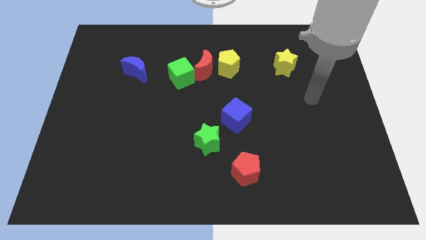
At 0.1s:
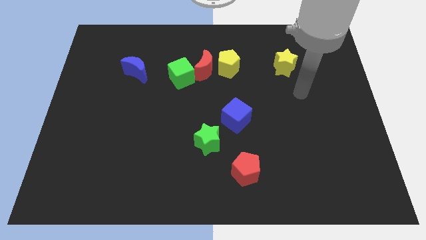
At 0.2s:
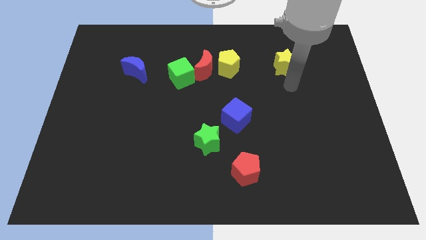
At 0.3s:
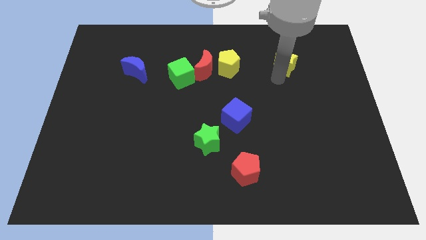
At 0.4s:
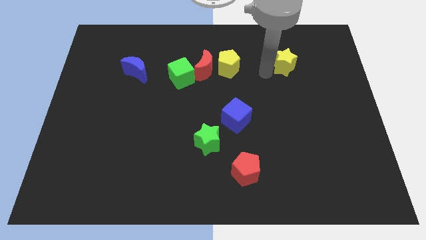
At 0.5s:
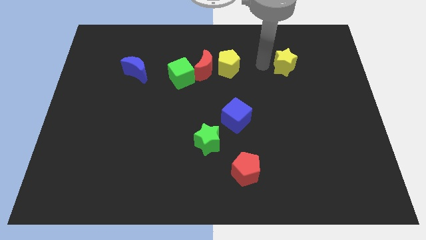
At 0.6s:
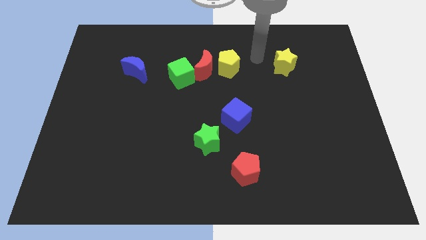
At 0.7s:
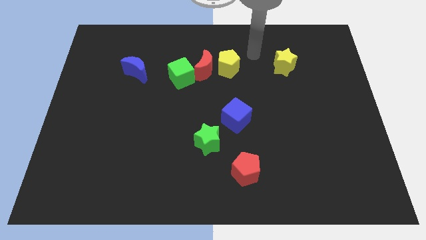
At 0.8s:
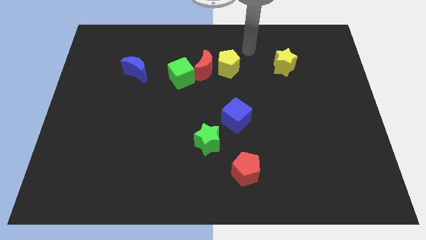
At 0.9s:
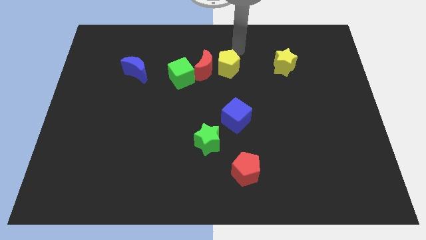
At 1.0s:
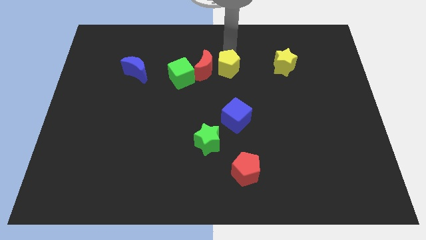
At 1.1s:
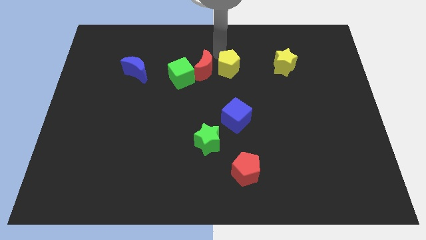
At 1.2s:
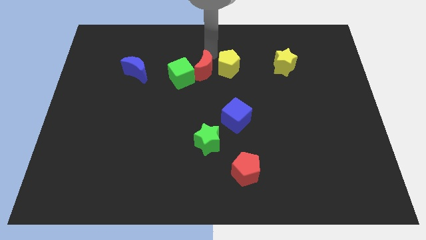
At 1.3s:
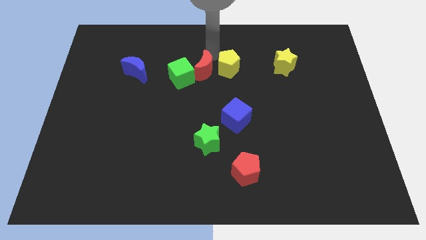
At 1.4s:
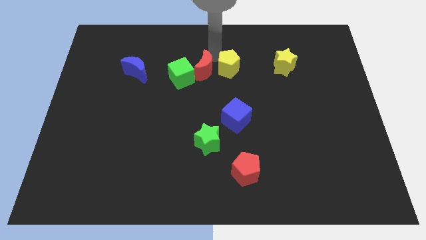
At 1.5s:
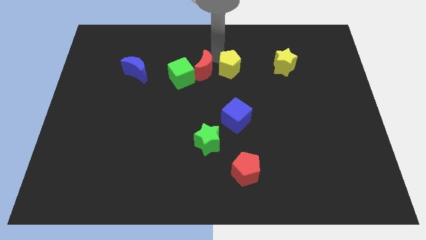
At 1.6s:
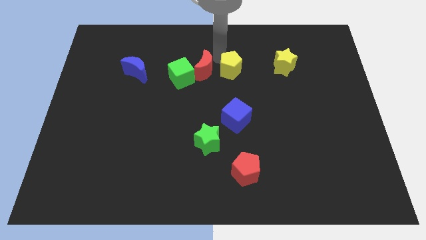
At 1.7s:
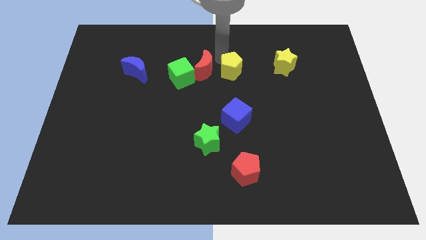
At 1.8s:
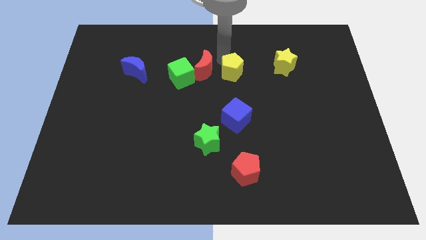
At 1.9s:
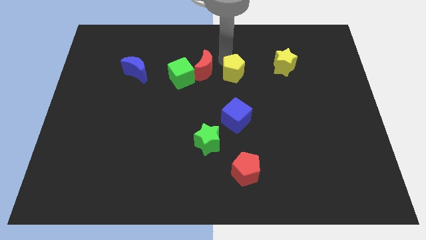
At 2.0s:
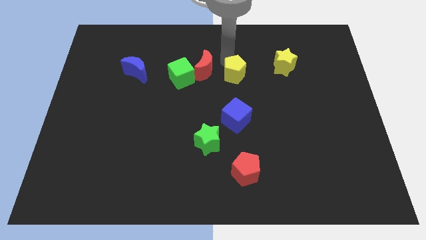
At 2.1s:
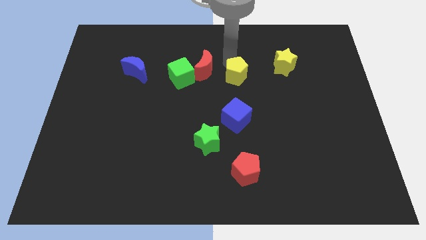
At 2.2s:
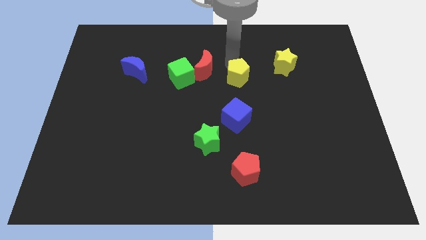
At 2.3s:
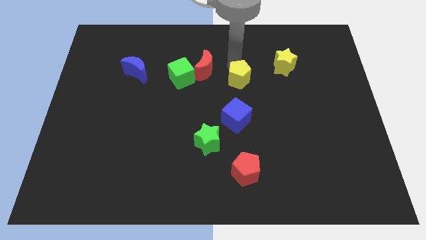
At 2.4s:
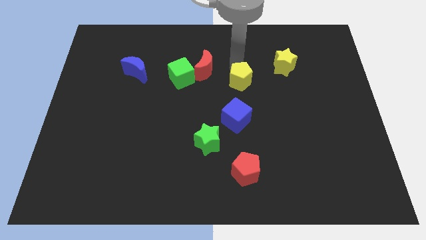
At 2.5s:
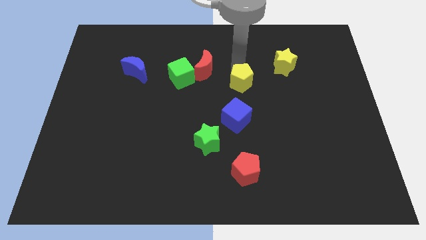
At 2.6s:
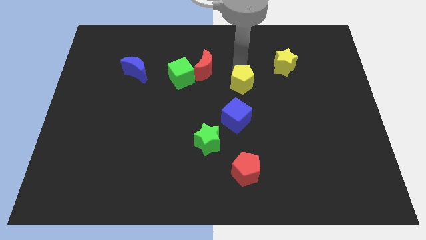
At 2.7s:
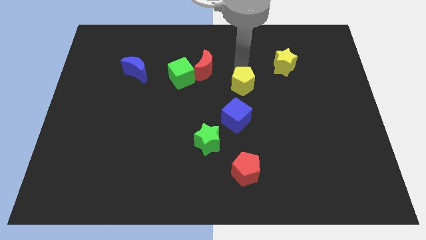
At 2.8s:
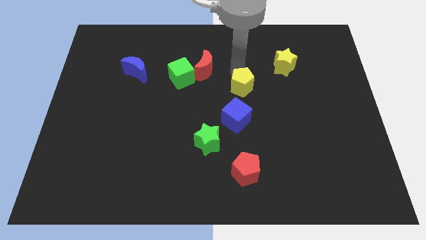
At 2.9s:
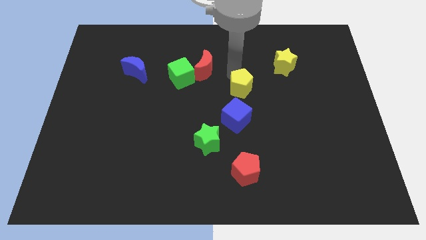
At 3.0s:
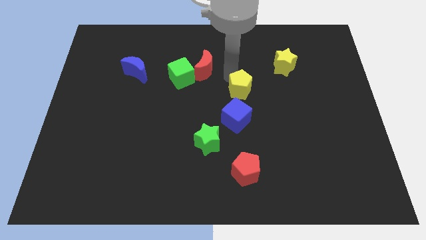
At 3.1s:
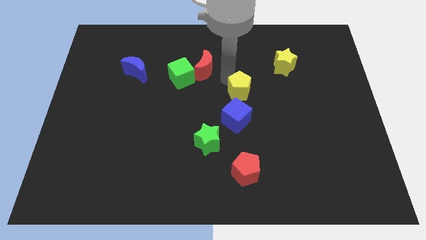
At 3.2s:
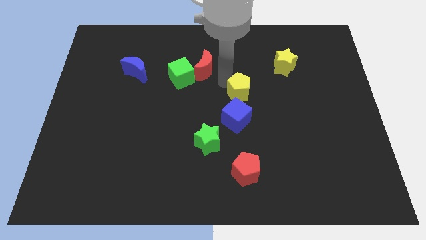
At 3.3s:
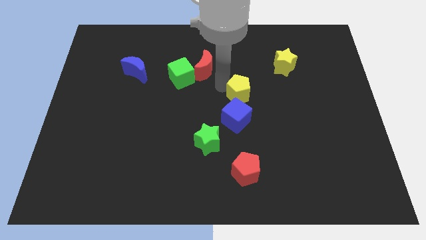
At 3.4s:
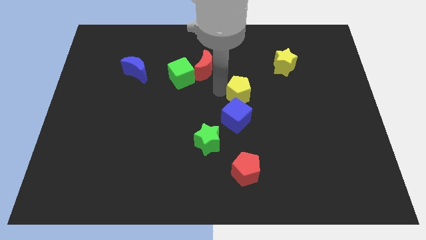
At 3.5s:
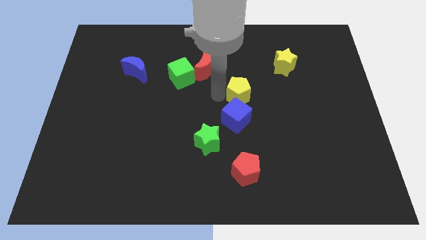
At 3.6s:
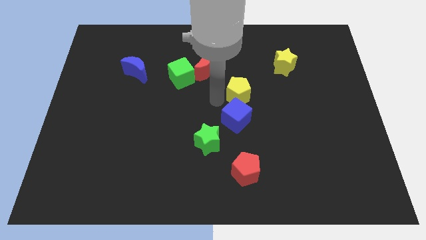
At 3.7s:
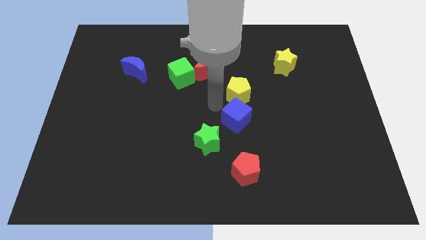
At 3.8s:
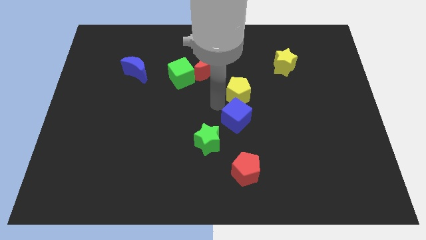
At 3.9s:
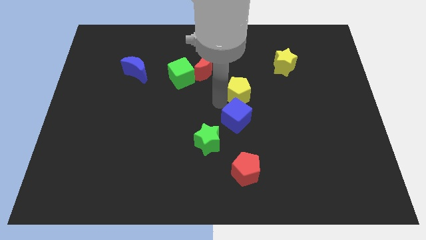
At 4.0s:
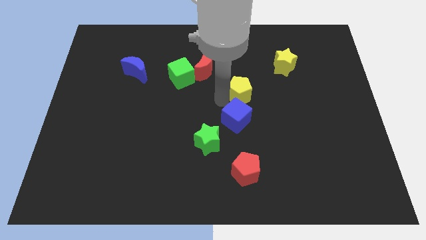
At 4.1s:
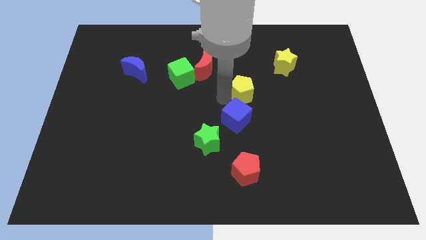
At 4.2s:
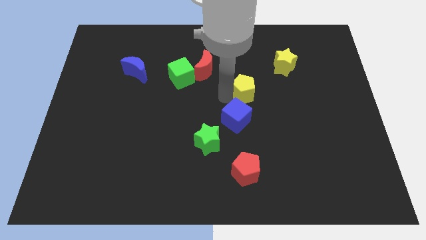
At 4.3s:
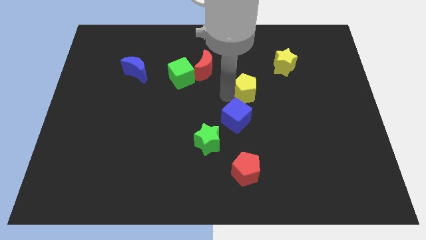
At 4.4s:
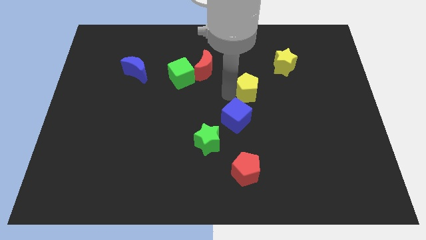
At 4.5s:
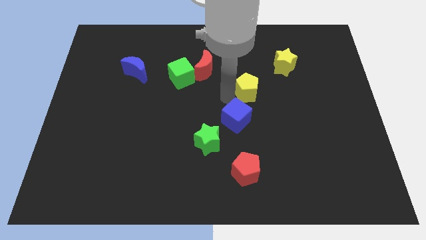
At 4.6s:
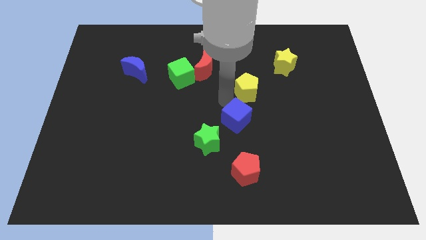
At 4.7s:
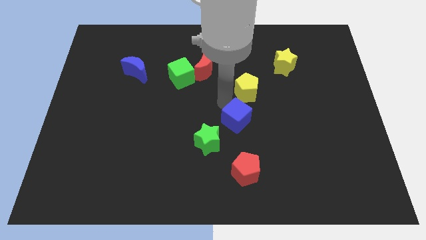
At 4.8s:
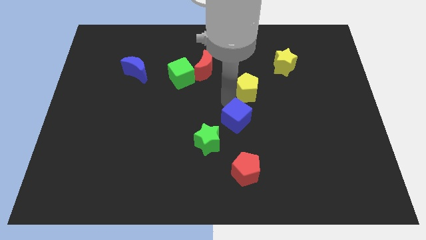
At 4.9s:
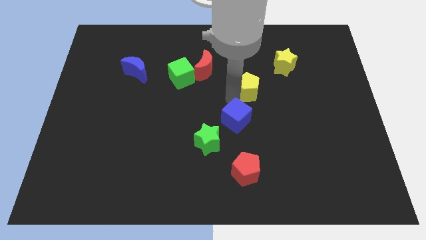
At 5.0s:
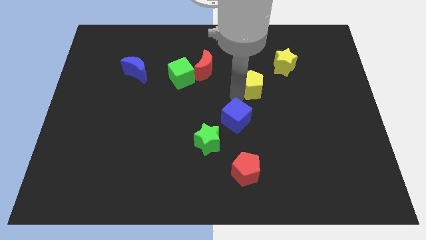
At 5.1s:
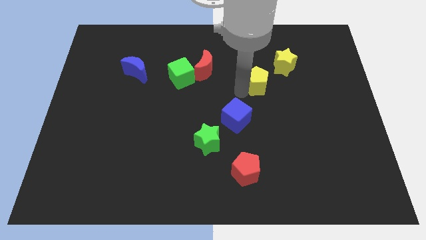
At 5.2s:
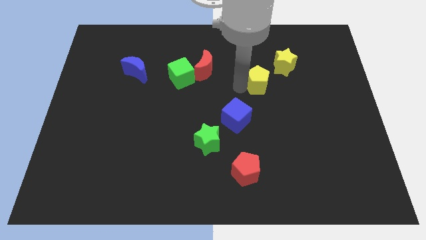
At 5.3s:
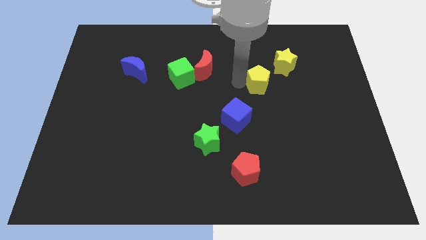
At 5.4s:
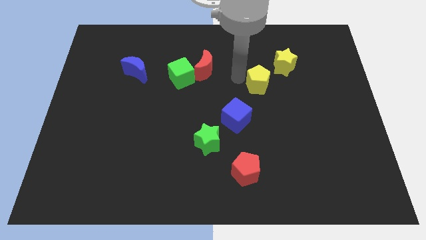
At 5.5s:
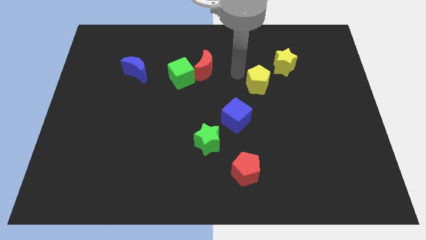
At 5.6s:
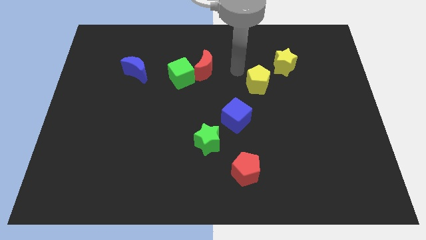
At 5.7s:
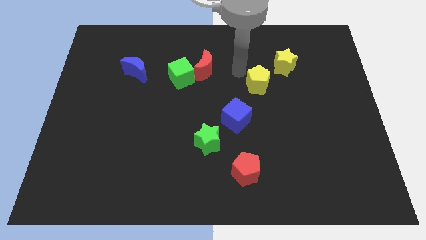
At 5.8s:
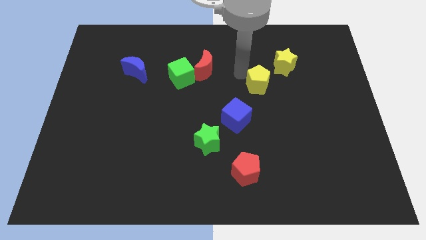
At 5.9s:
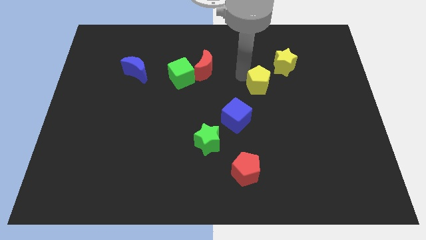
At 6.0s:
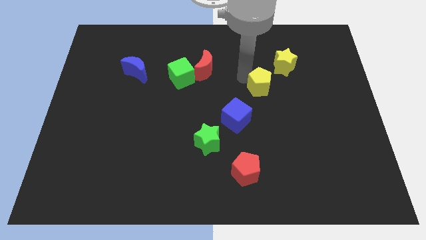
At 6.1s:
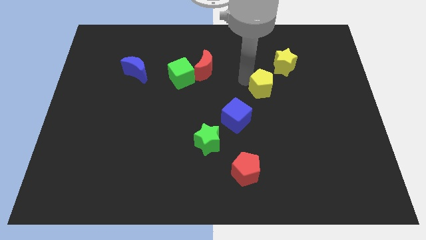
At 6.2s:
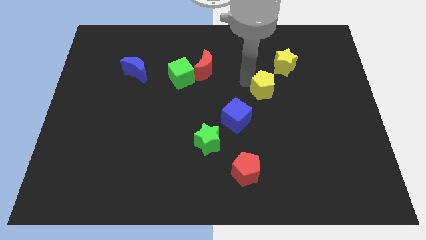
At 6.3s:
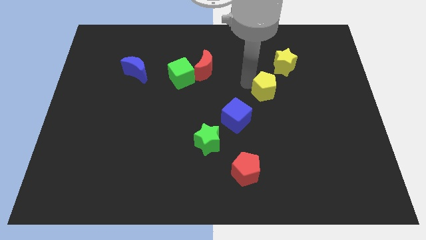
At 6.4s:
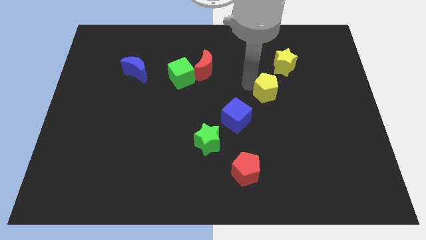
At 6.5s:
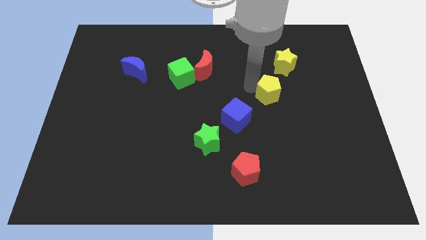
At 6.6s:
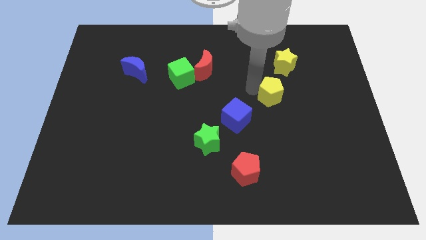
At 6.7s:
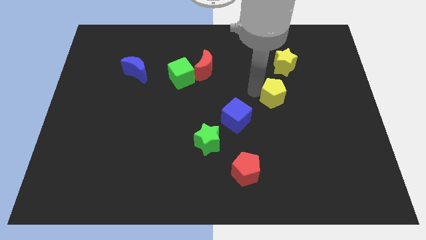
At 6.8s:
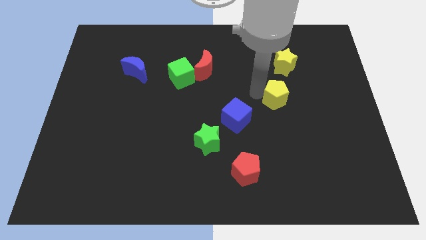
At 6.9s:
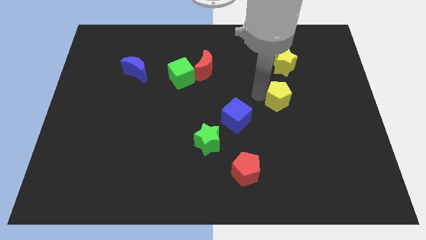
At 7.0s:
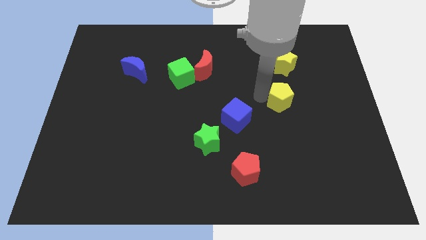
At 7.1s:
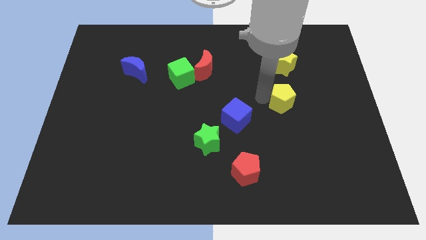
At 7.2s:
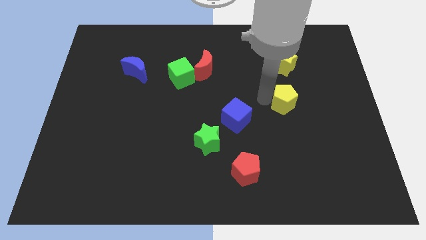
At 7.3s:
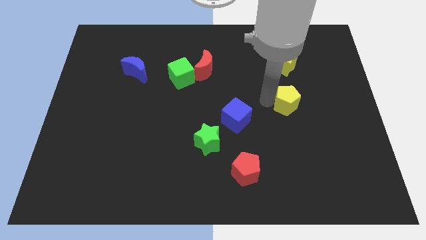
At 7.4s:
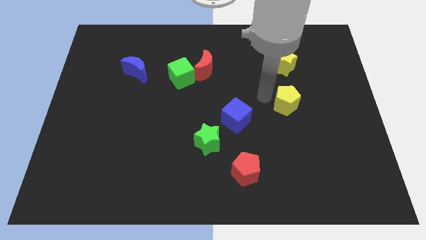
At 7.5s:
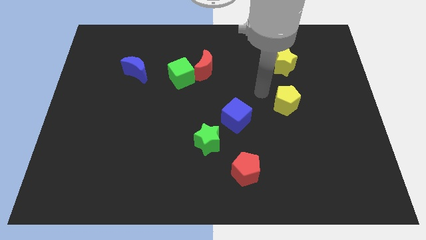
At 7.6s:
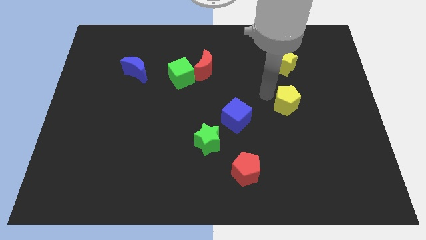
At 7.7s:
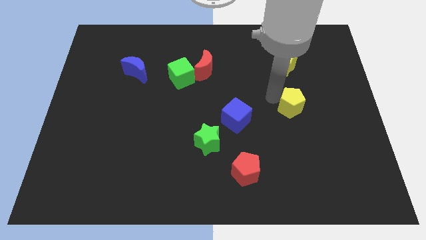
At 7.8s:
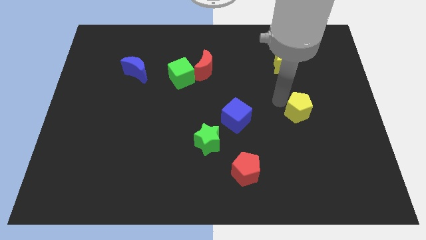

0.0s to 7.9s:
push the yellow pentagon down and right
